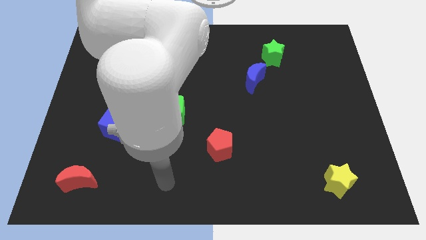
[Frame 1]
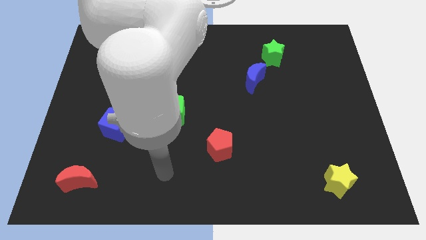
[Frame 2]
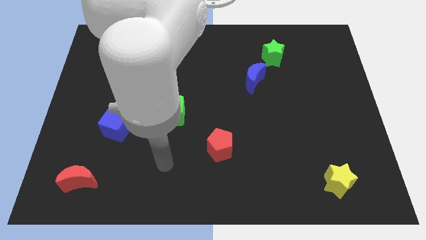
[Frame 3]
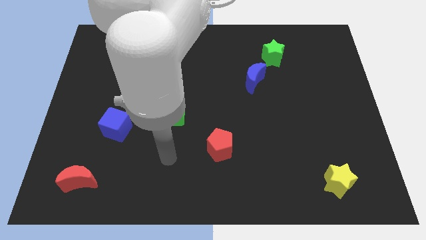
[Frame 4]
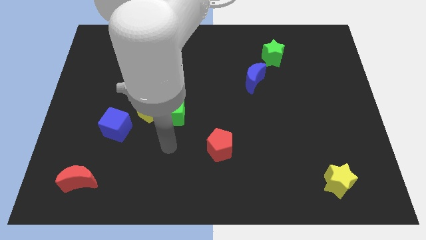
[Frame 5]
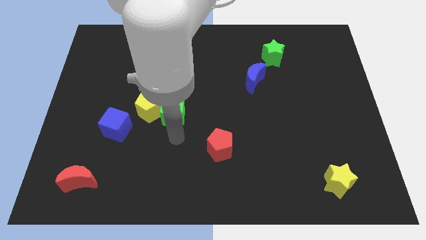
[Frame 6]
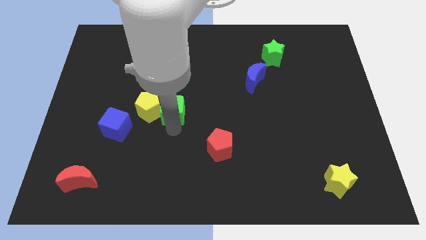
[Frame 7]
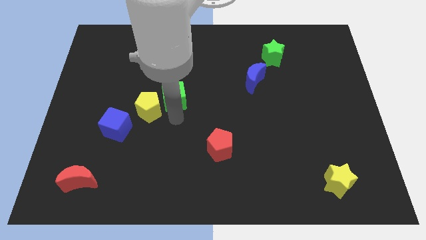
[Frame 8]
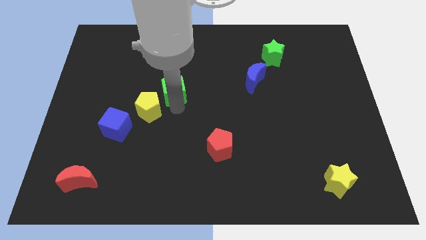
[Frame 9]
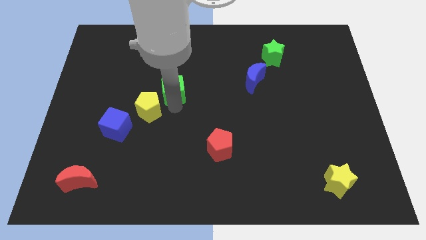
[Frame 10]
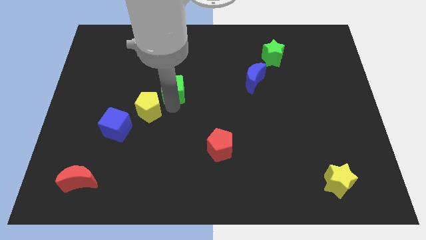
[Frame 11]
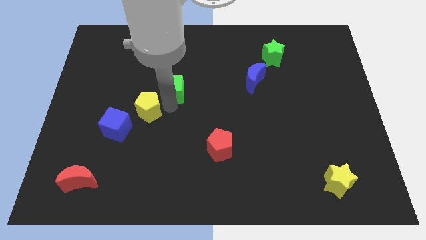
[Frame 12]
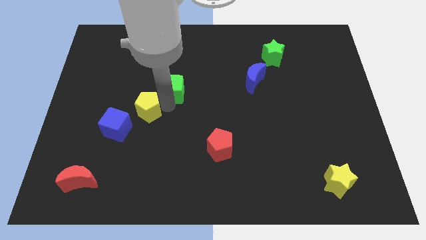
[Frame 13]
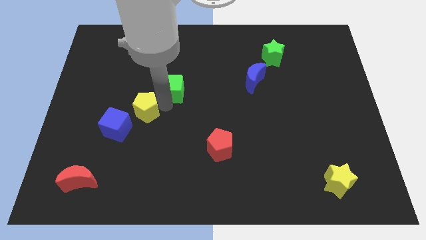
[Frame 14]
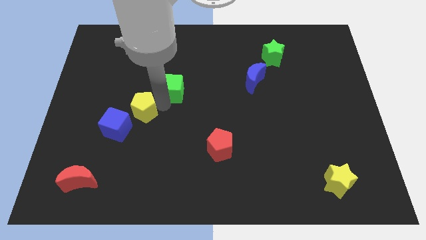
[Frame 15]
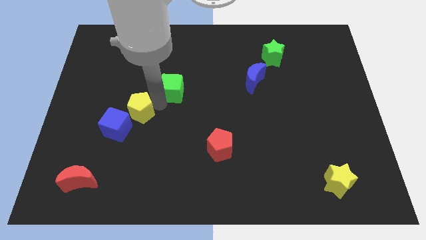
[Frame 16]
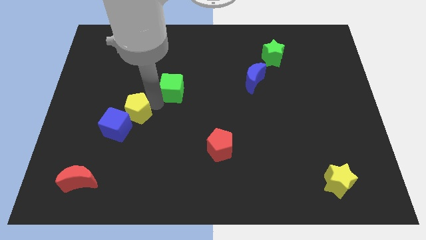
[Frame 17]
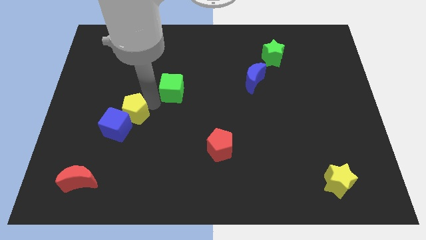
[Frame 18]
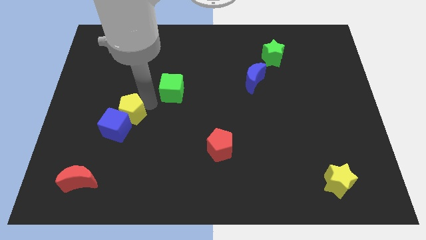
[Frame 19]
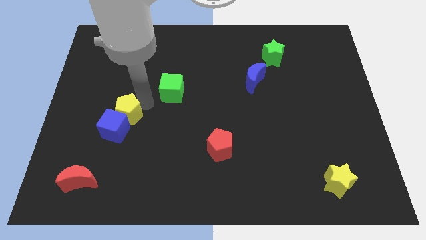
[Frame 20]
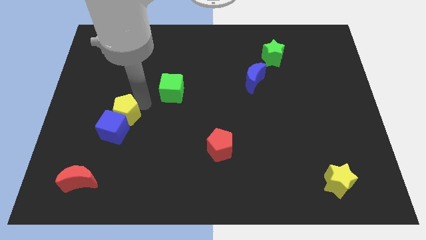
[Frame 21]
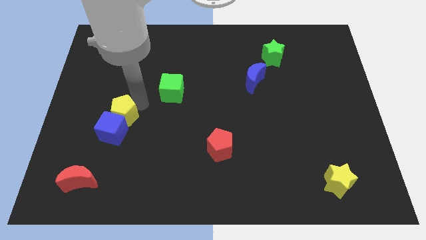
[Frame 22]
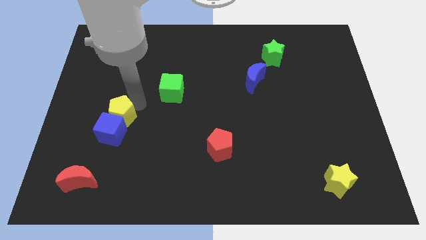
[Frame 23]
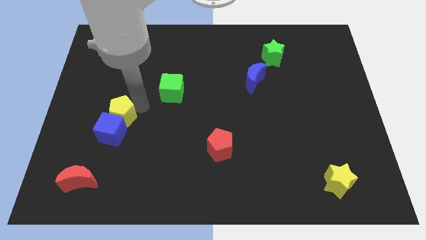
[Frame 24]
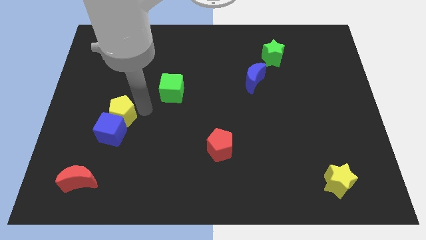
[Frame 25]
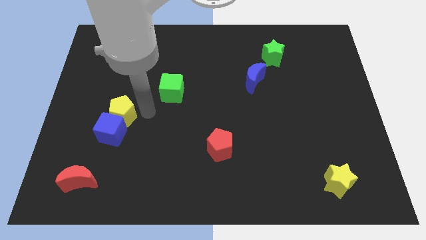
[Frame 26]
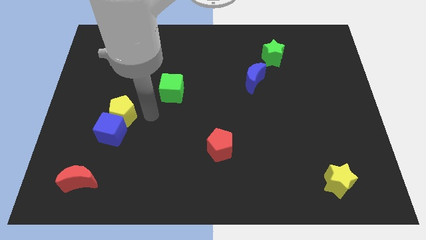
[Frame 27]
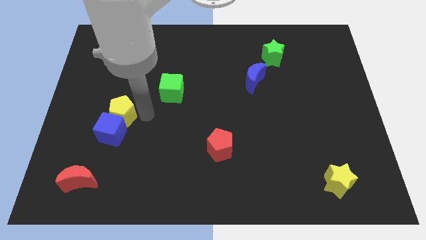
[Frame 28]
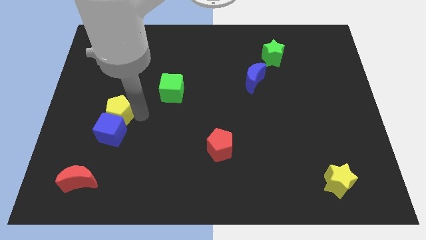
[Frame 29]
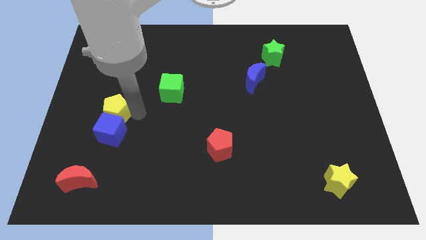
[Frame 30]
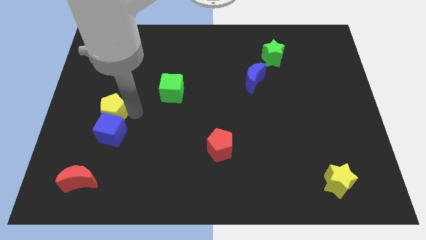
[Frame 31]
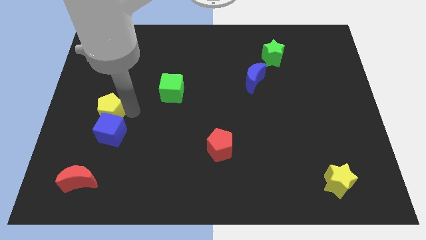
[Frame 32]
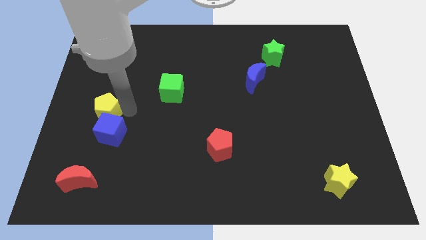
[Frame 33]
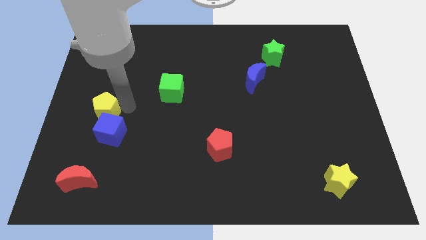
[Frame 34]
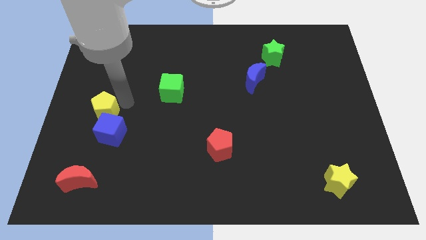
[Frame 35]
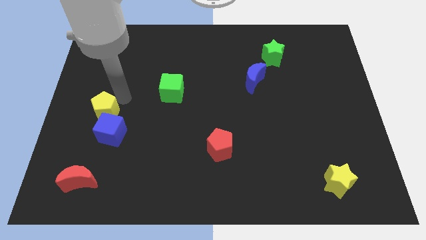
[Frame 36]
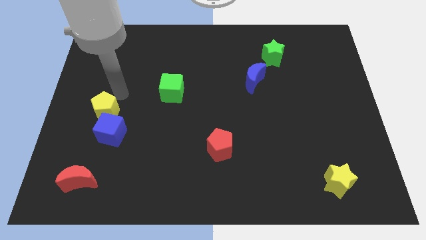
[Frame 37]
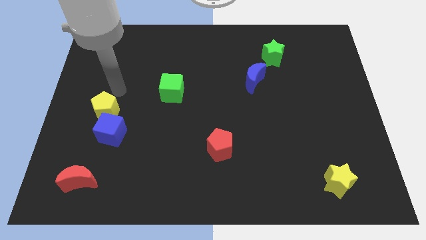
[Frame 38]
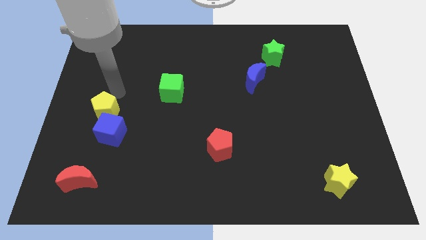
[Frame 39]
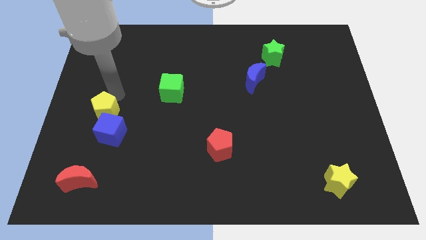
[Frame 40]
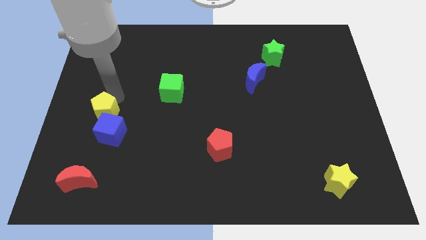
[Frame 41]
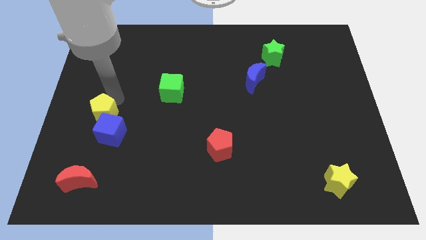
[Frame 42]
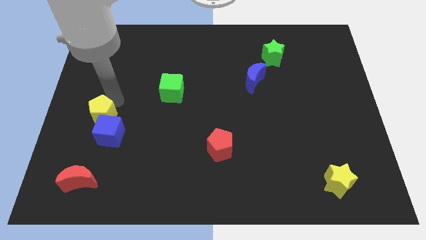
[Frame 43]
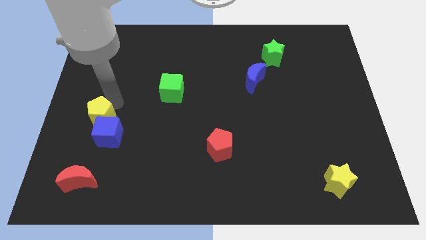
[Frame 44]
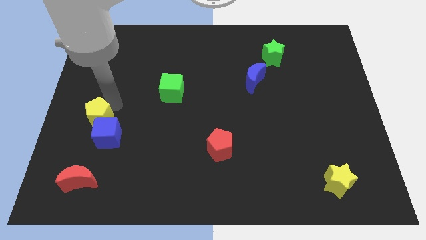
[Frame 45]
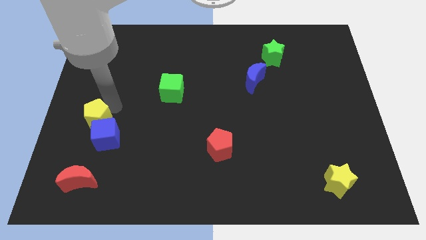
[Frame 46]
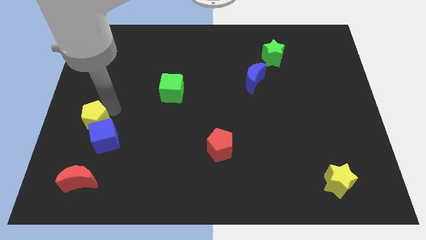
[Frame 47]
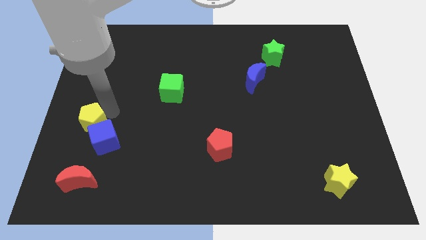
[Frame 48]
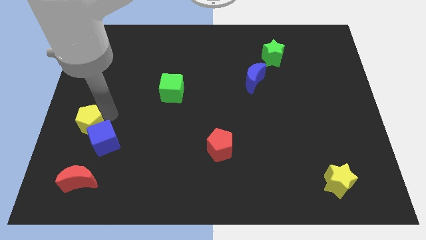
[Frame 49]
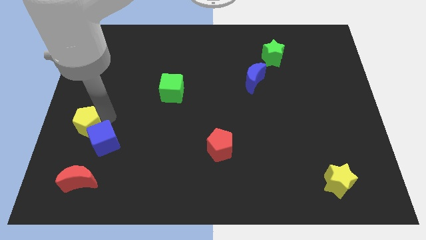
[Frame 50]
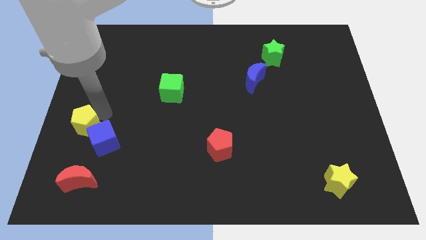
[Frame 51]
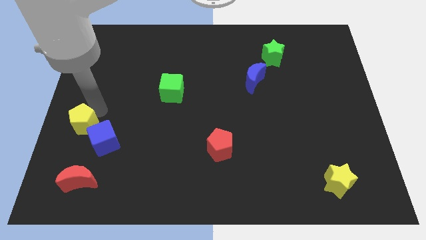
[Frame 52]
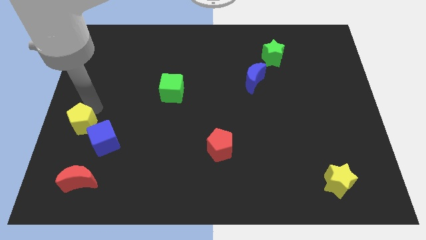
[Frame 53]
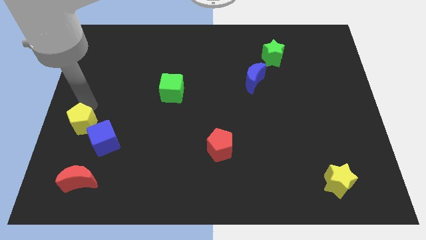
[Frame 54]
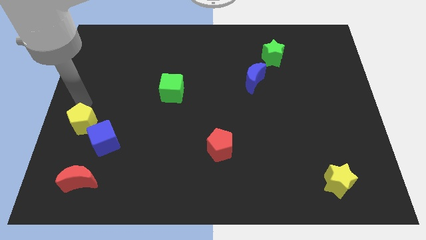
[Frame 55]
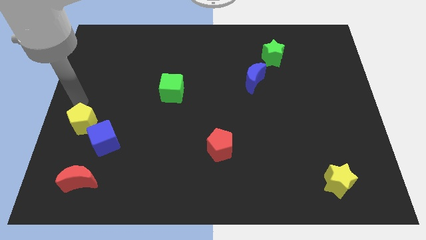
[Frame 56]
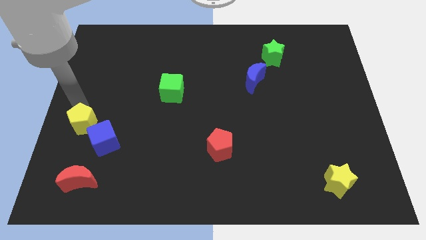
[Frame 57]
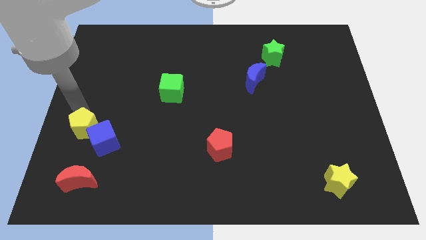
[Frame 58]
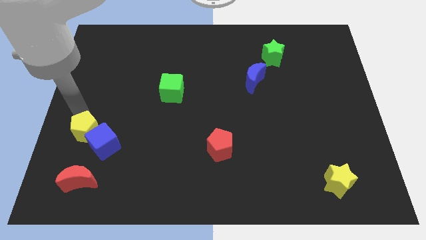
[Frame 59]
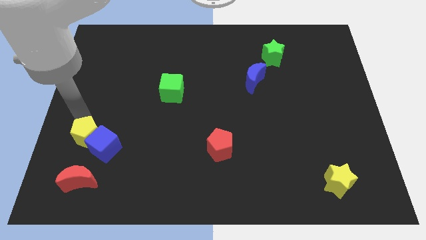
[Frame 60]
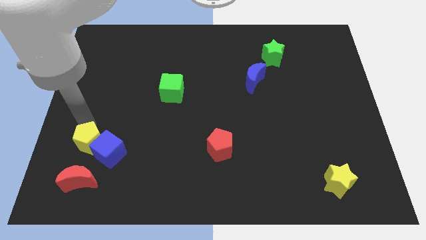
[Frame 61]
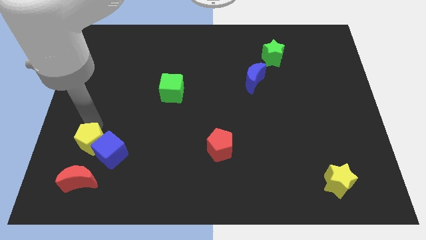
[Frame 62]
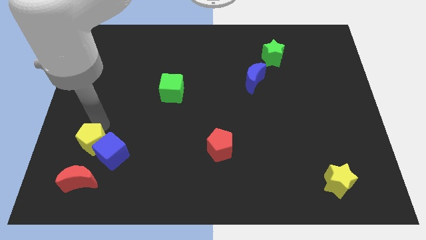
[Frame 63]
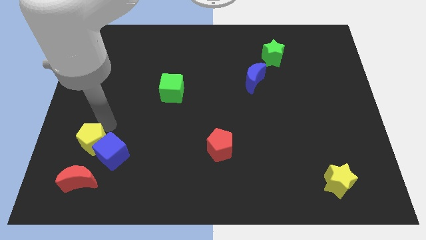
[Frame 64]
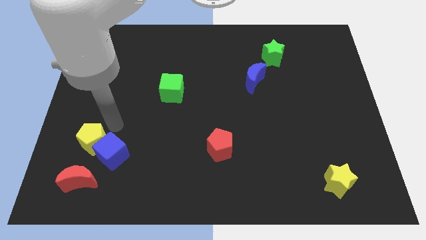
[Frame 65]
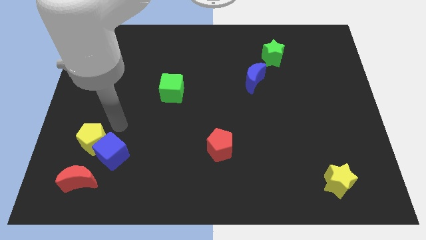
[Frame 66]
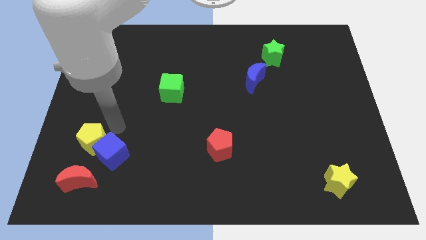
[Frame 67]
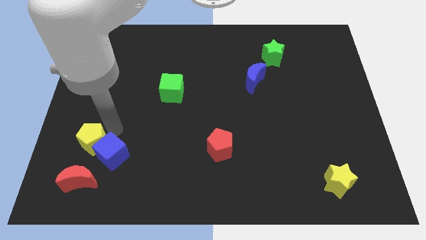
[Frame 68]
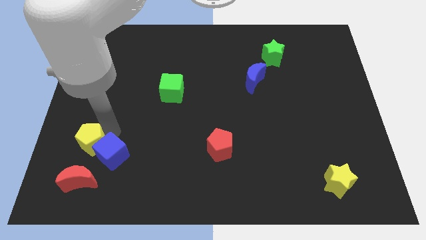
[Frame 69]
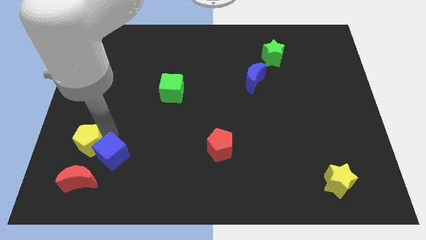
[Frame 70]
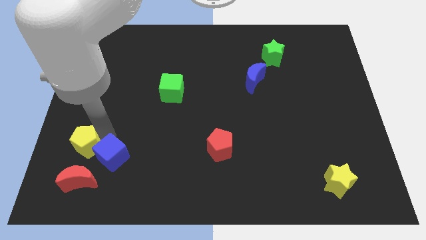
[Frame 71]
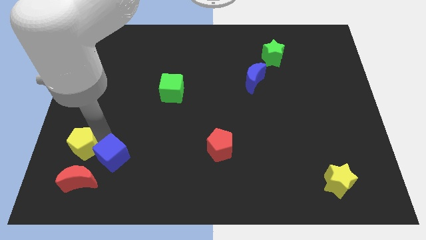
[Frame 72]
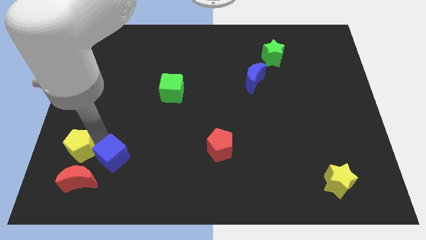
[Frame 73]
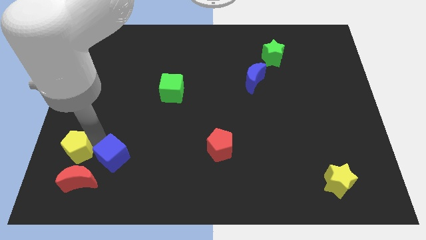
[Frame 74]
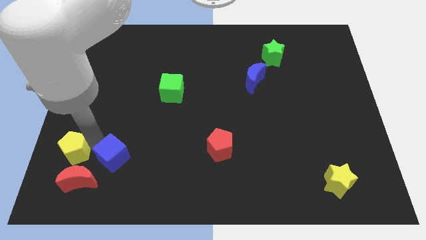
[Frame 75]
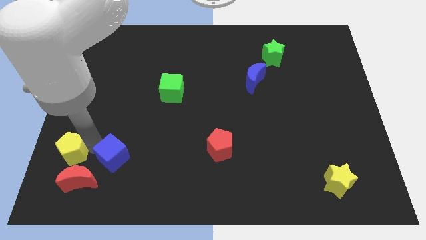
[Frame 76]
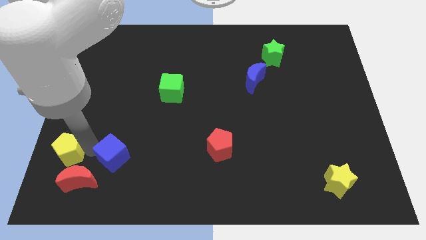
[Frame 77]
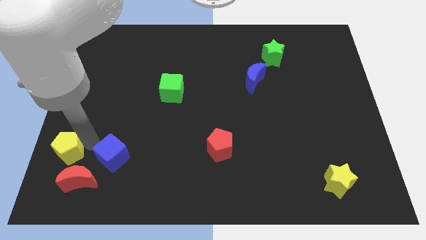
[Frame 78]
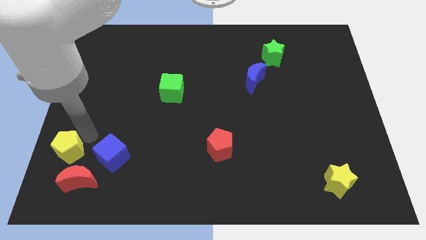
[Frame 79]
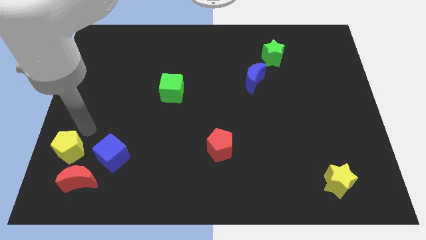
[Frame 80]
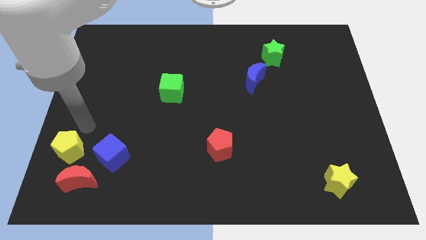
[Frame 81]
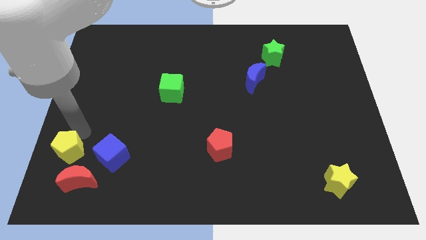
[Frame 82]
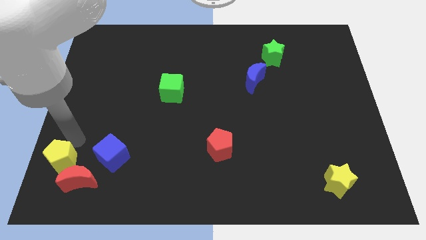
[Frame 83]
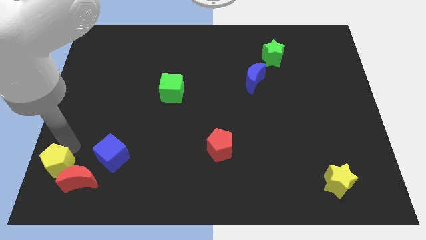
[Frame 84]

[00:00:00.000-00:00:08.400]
push the yellow pentagon to the lower left corner
